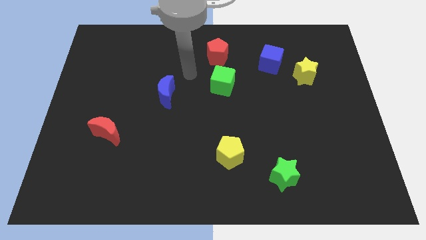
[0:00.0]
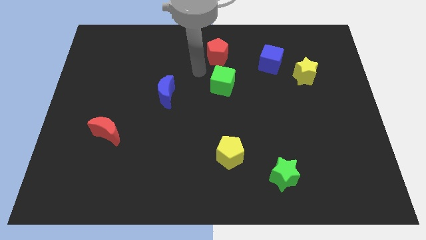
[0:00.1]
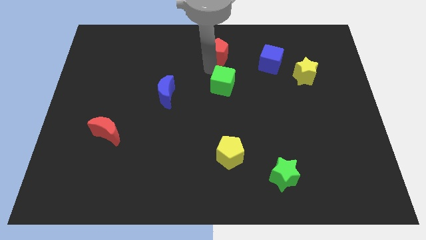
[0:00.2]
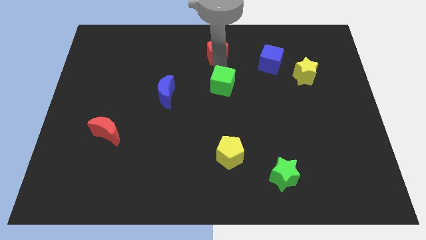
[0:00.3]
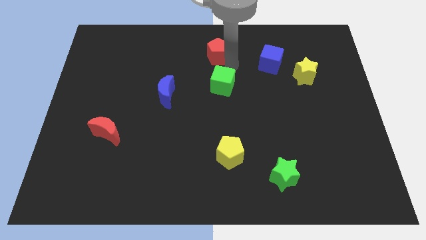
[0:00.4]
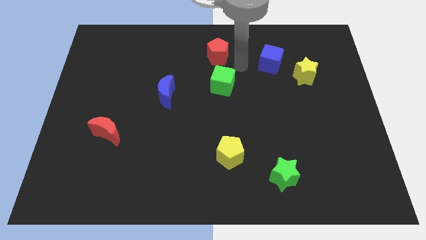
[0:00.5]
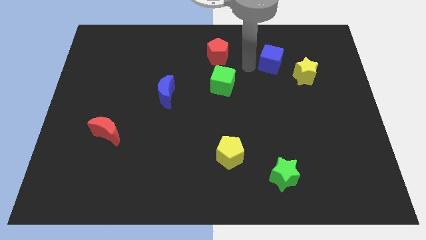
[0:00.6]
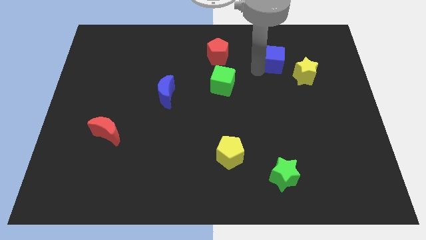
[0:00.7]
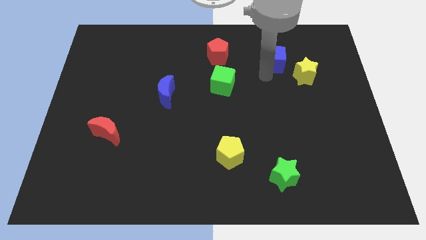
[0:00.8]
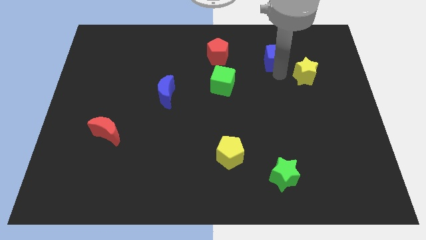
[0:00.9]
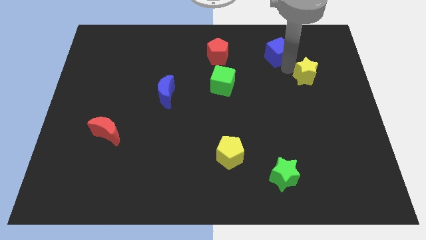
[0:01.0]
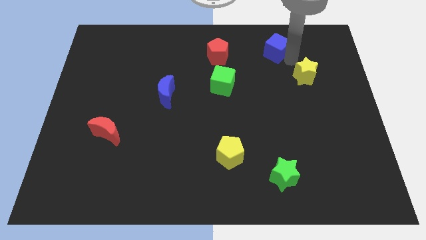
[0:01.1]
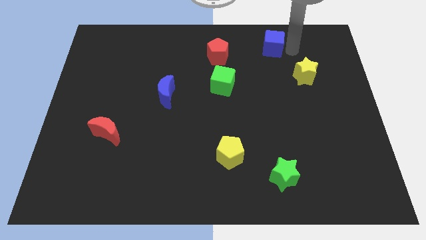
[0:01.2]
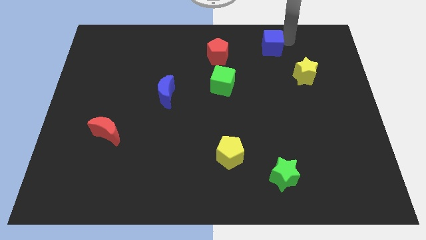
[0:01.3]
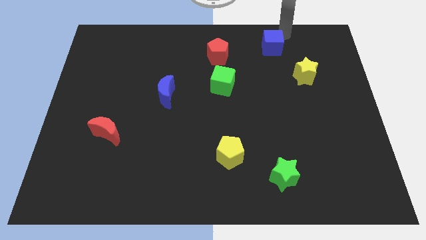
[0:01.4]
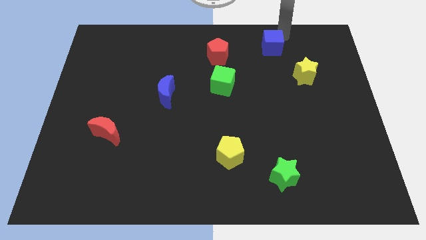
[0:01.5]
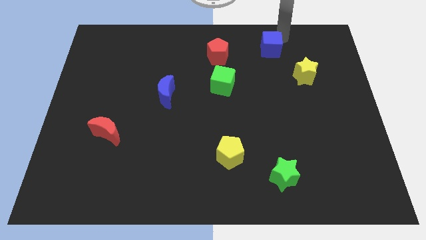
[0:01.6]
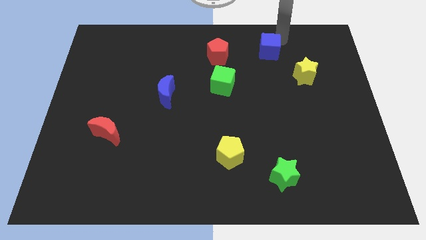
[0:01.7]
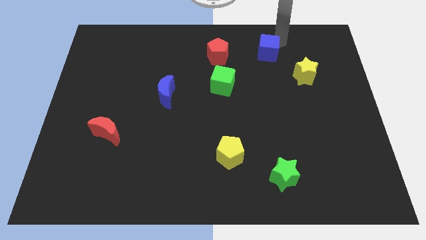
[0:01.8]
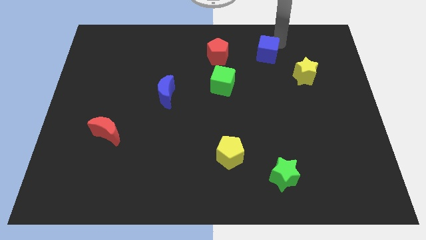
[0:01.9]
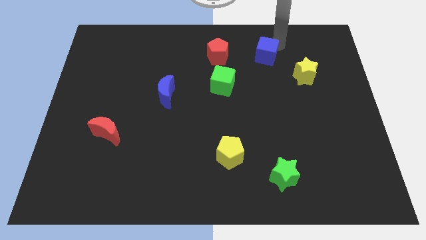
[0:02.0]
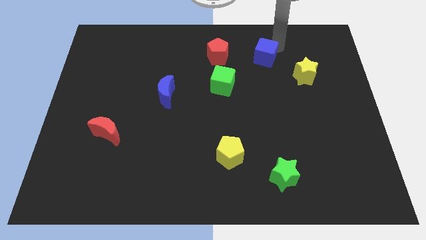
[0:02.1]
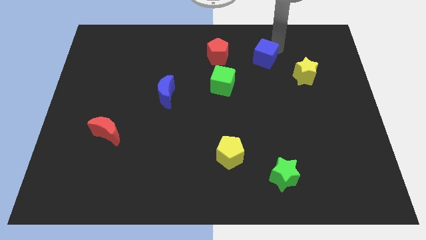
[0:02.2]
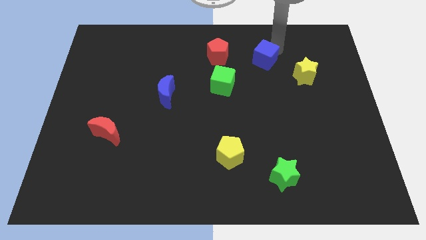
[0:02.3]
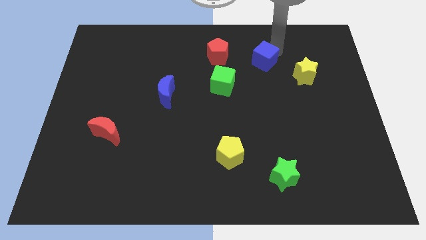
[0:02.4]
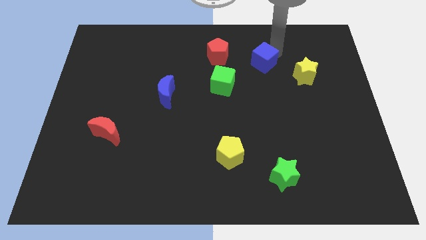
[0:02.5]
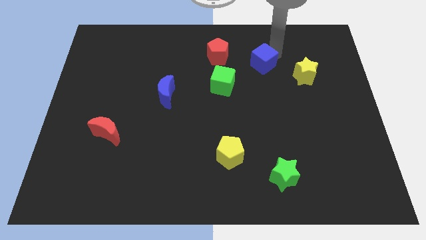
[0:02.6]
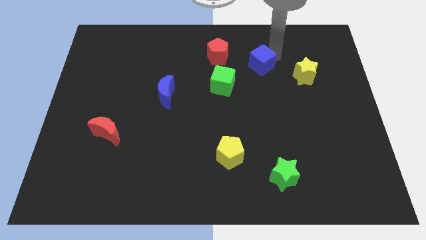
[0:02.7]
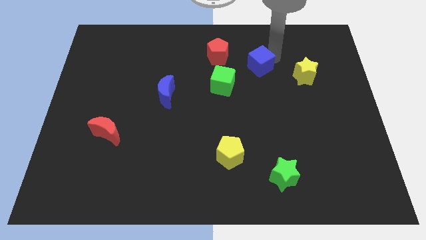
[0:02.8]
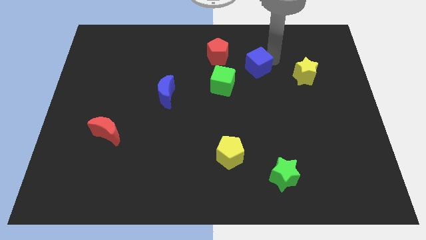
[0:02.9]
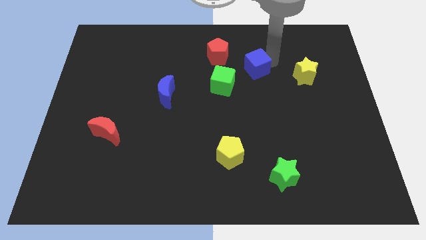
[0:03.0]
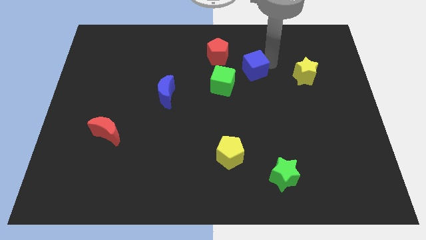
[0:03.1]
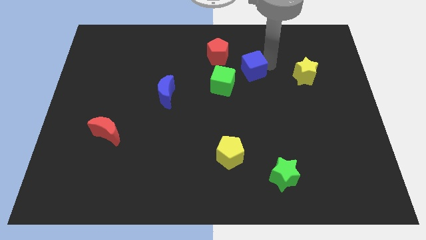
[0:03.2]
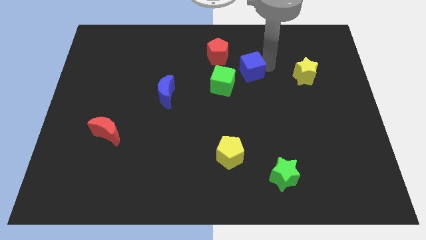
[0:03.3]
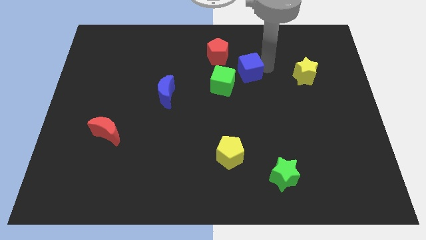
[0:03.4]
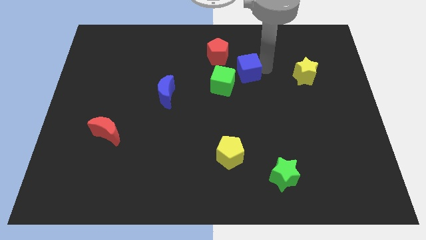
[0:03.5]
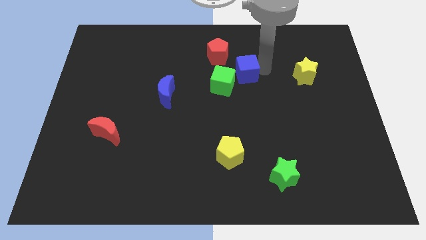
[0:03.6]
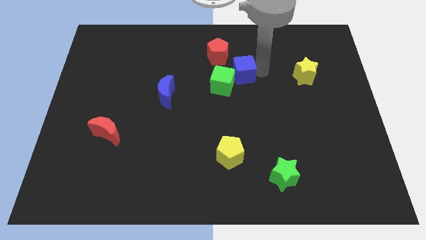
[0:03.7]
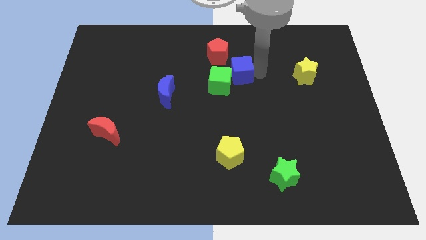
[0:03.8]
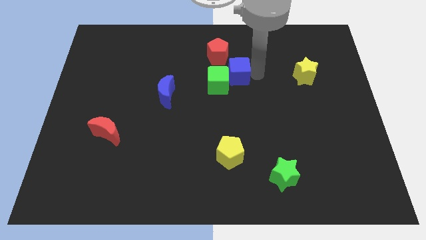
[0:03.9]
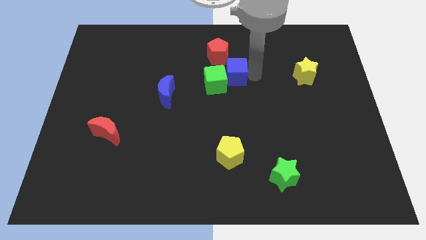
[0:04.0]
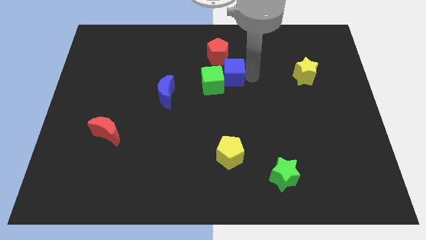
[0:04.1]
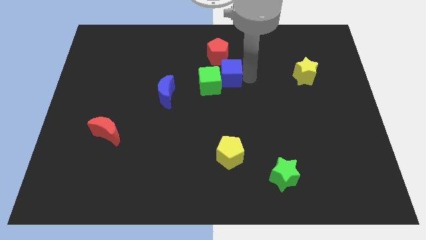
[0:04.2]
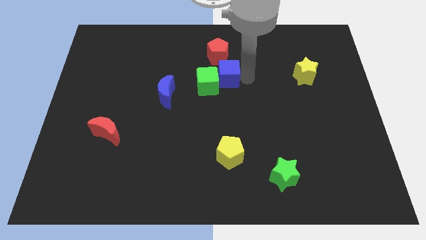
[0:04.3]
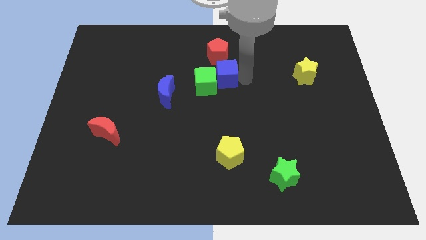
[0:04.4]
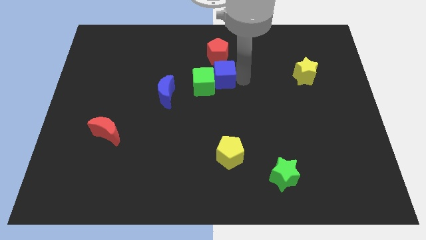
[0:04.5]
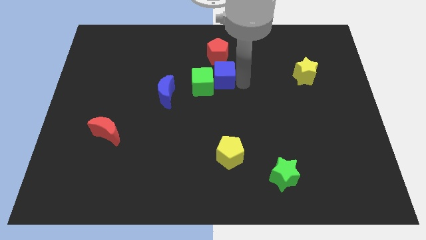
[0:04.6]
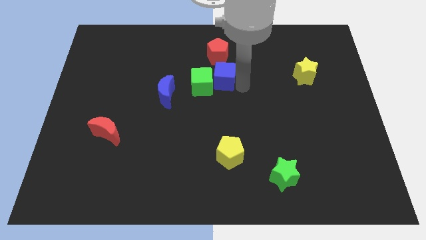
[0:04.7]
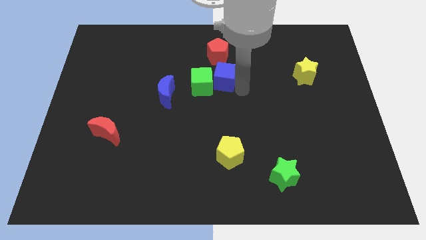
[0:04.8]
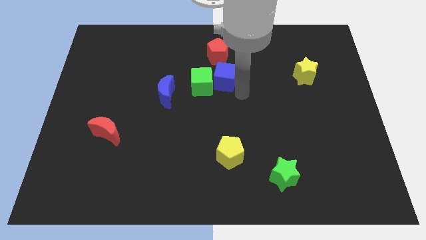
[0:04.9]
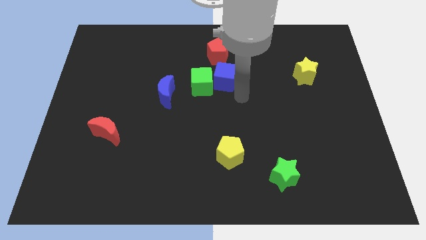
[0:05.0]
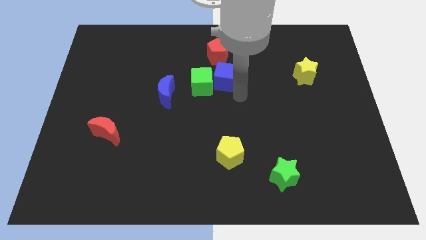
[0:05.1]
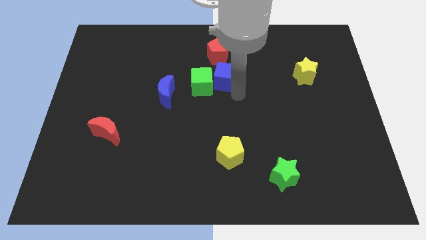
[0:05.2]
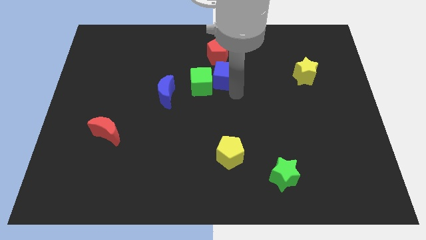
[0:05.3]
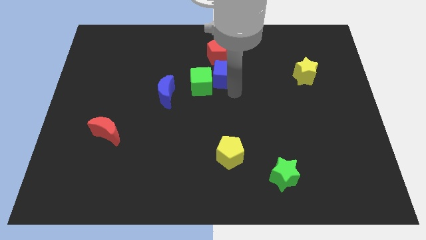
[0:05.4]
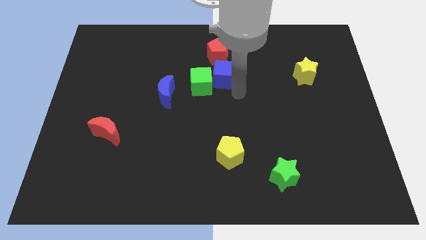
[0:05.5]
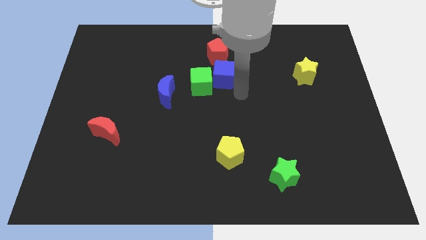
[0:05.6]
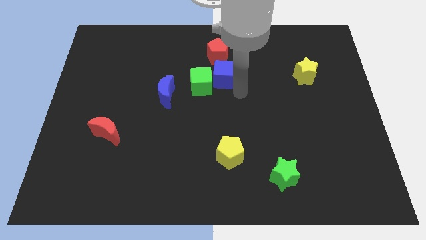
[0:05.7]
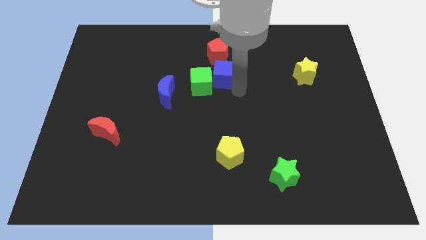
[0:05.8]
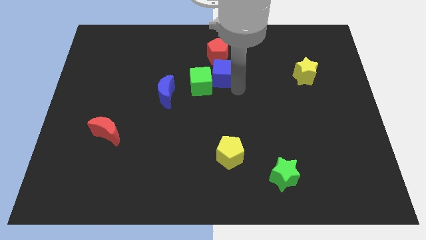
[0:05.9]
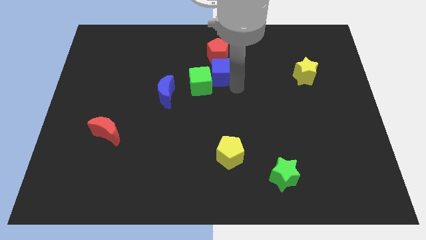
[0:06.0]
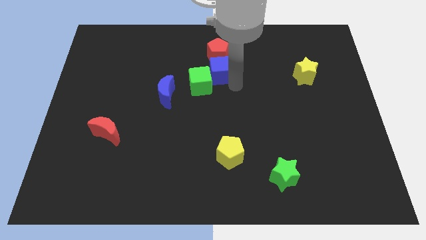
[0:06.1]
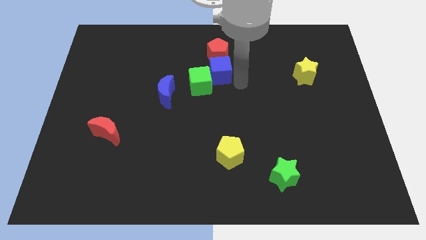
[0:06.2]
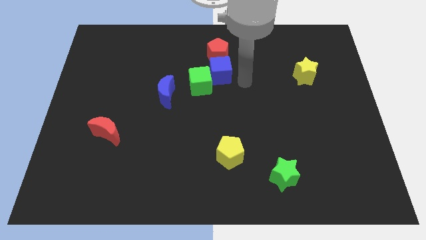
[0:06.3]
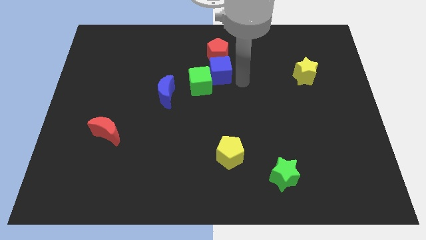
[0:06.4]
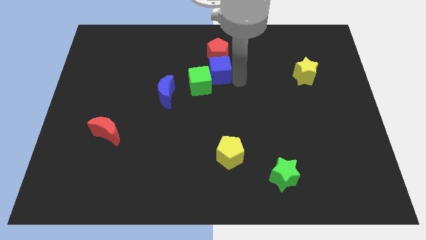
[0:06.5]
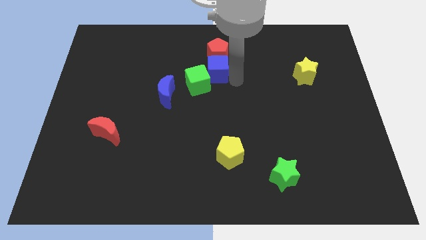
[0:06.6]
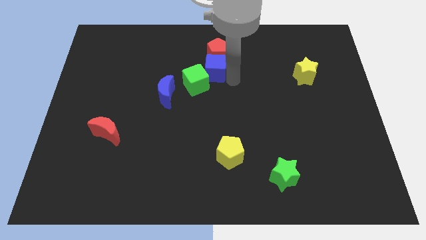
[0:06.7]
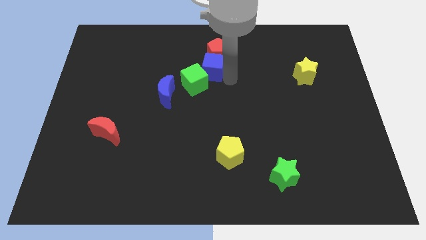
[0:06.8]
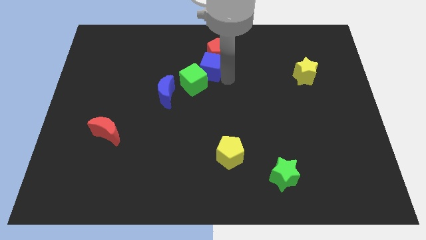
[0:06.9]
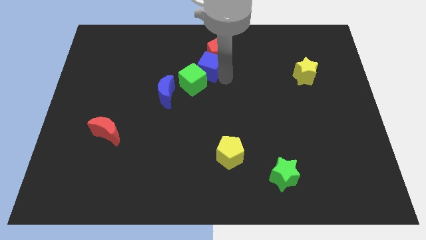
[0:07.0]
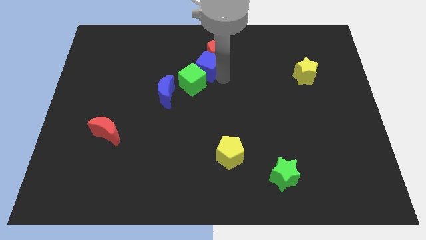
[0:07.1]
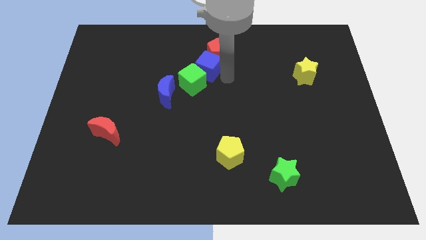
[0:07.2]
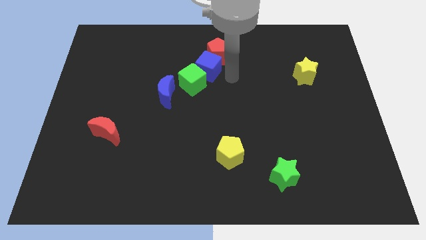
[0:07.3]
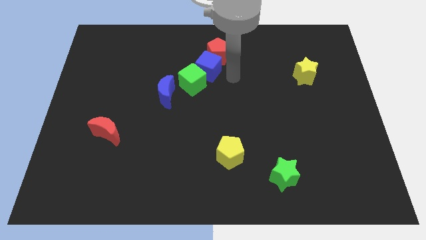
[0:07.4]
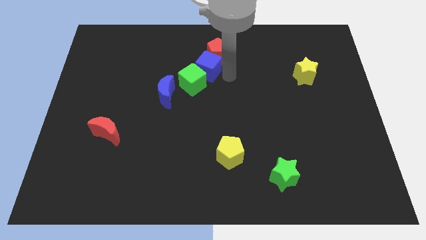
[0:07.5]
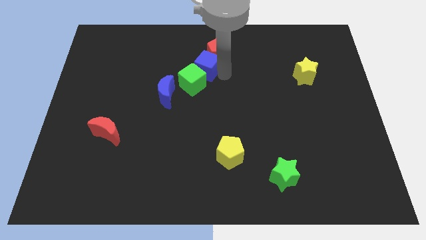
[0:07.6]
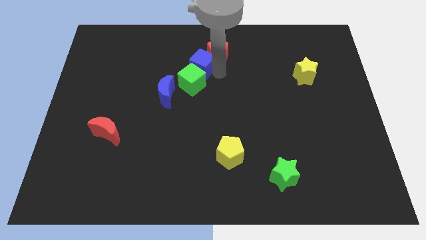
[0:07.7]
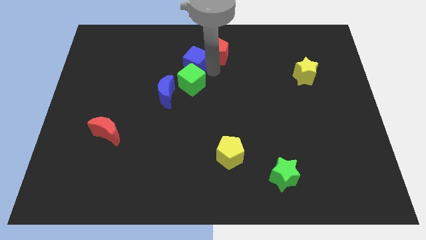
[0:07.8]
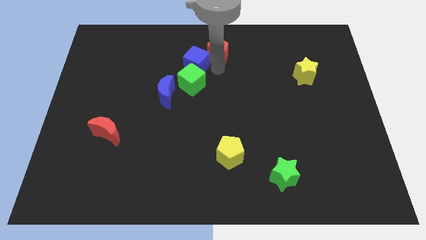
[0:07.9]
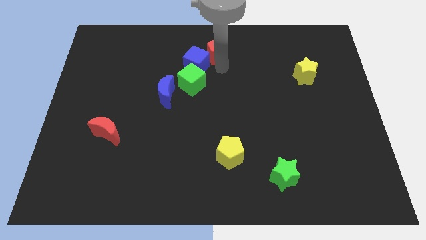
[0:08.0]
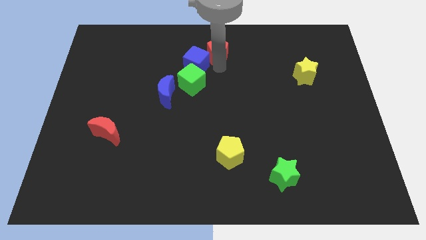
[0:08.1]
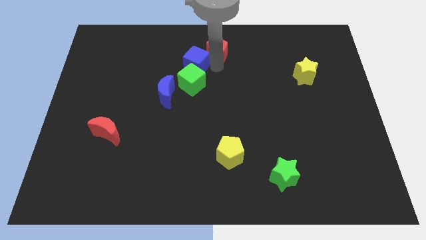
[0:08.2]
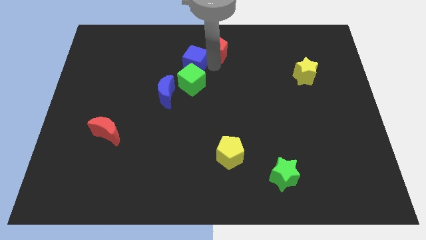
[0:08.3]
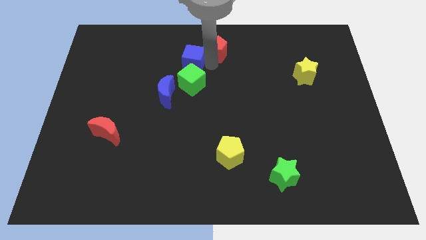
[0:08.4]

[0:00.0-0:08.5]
move the blue cube left
